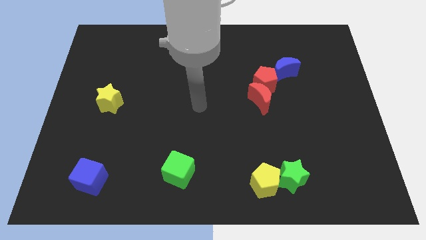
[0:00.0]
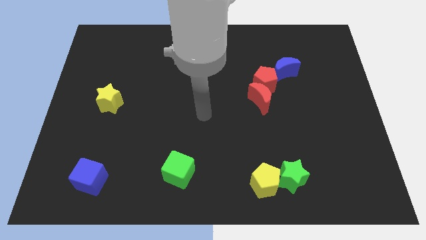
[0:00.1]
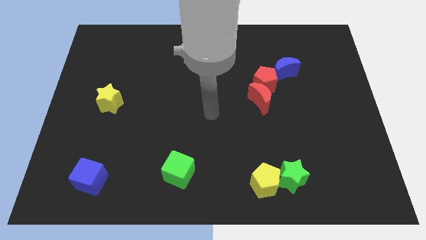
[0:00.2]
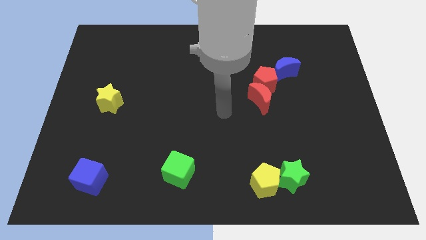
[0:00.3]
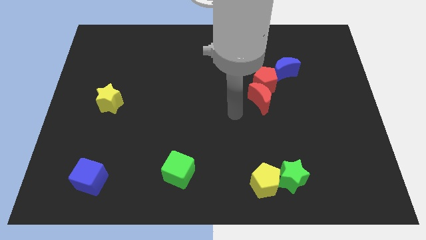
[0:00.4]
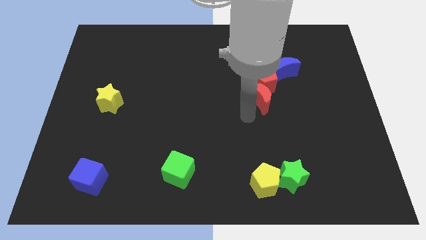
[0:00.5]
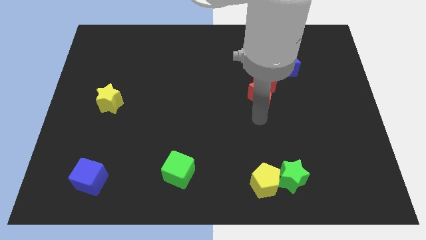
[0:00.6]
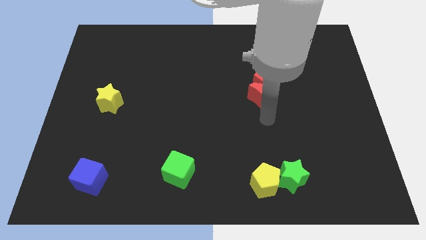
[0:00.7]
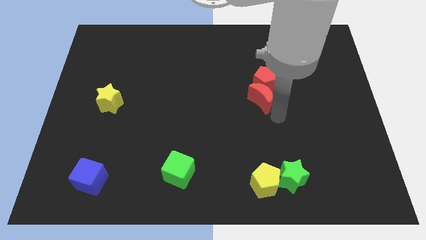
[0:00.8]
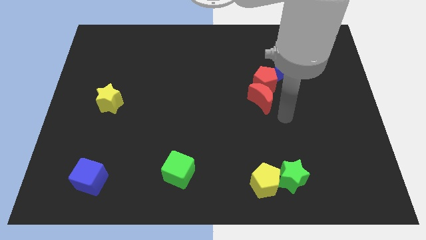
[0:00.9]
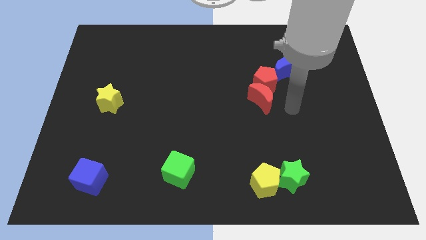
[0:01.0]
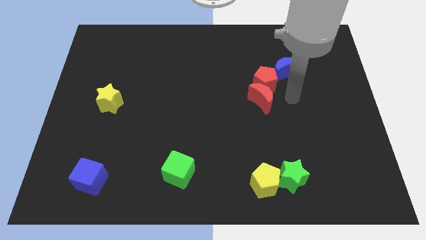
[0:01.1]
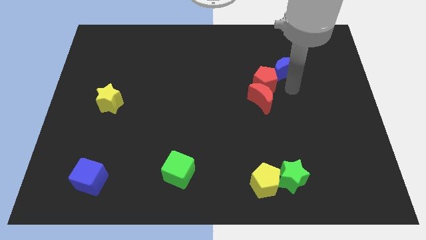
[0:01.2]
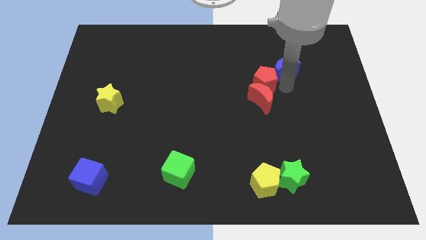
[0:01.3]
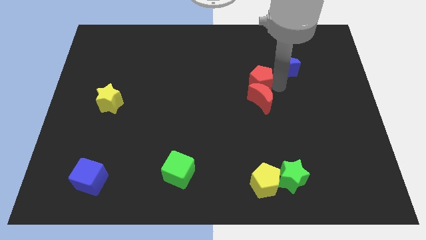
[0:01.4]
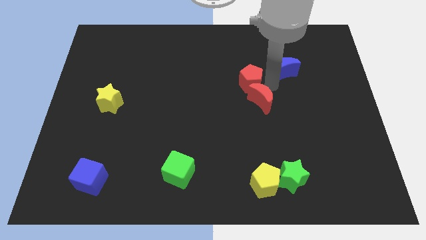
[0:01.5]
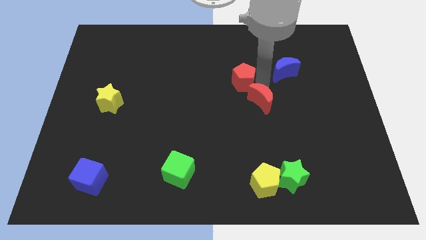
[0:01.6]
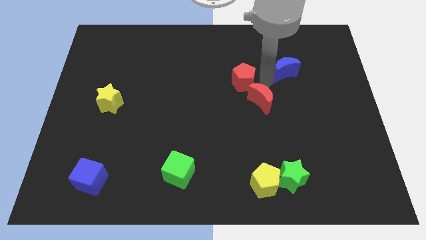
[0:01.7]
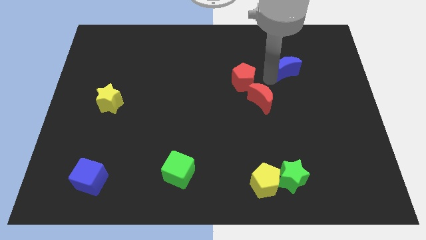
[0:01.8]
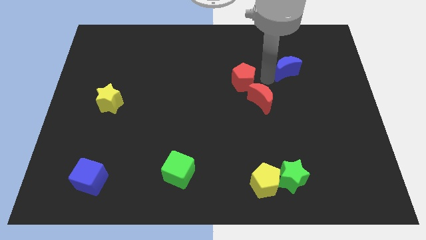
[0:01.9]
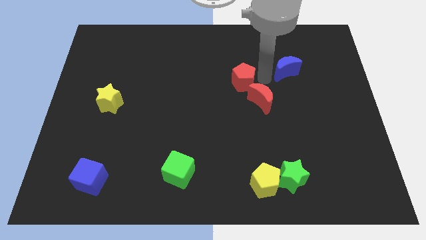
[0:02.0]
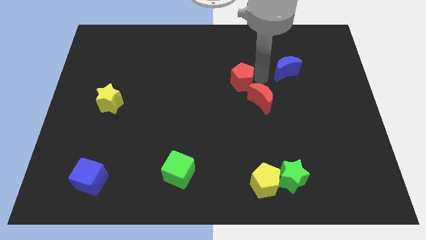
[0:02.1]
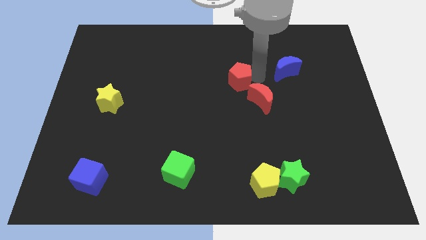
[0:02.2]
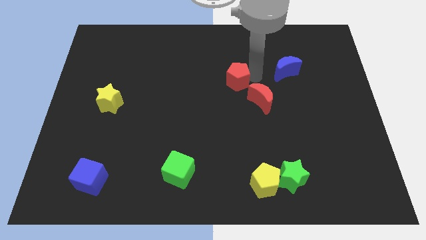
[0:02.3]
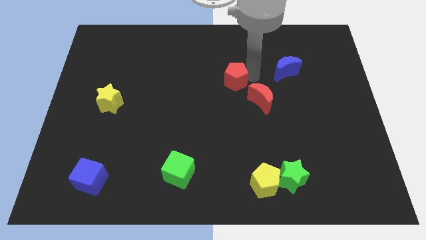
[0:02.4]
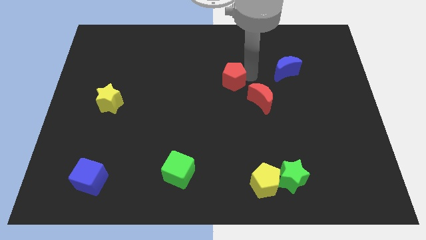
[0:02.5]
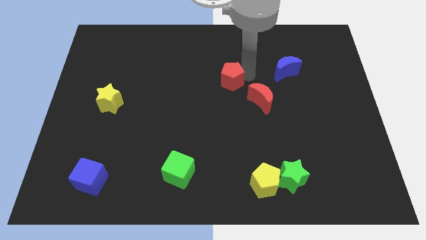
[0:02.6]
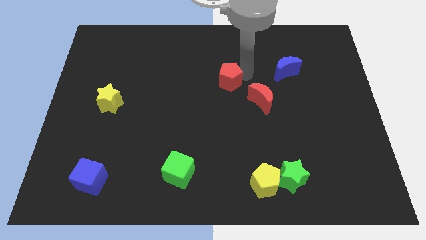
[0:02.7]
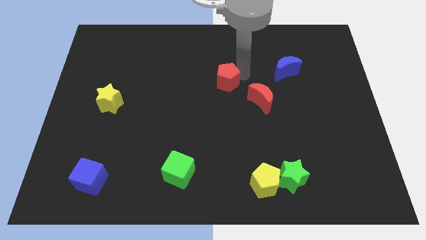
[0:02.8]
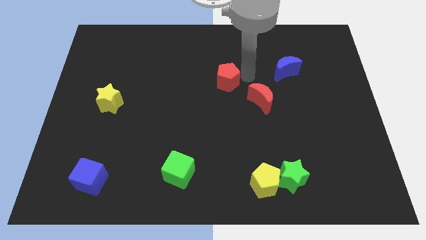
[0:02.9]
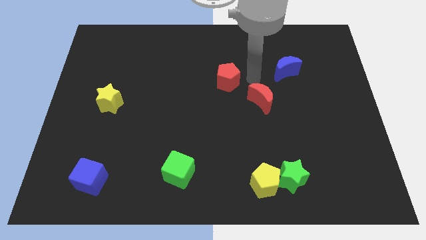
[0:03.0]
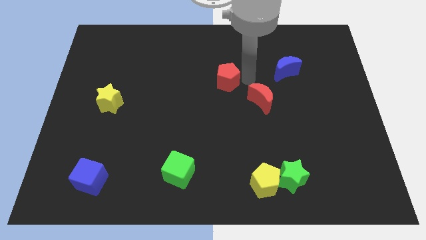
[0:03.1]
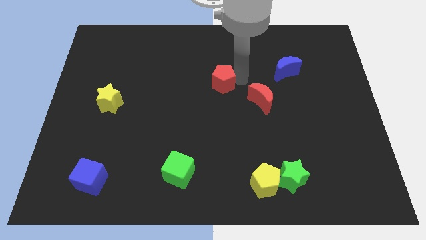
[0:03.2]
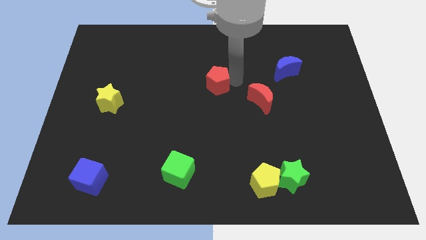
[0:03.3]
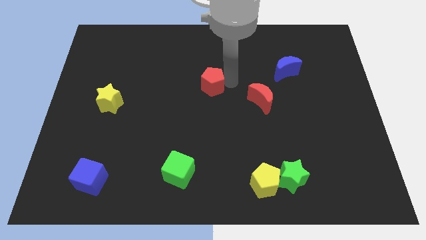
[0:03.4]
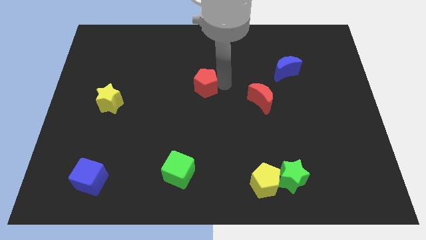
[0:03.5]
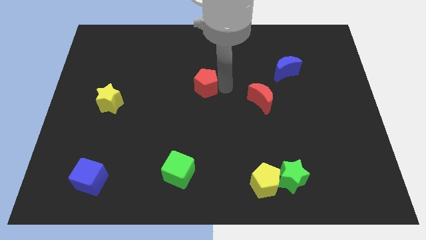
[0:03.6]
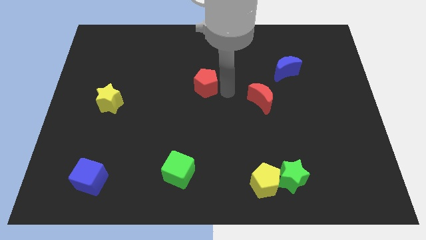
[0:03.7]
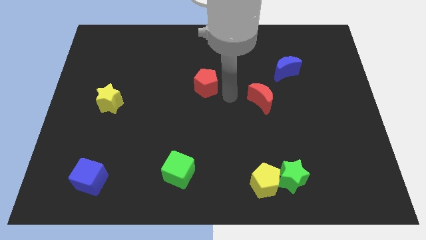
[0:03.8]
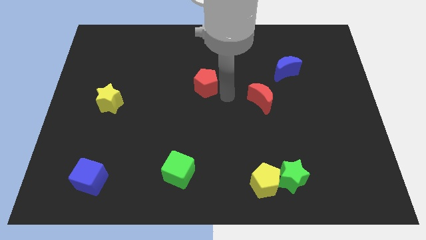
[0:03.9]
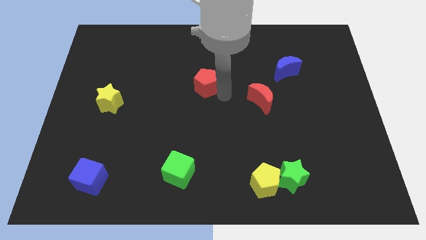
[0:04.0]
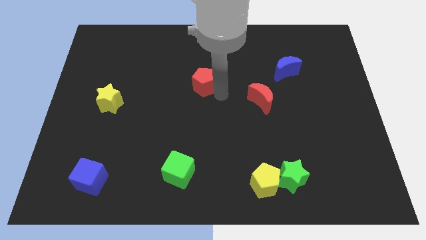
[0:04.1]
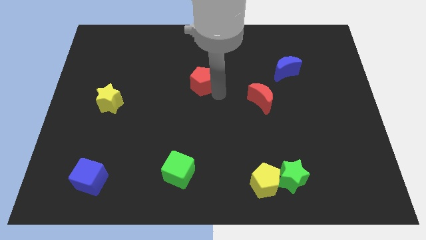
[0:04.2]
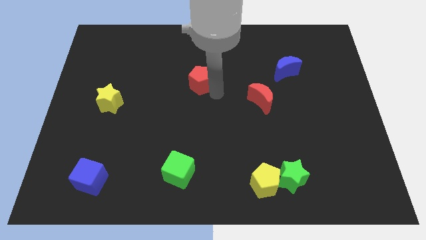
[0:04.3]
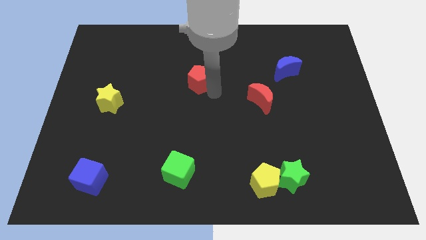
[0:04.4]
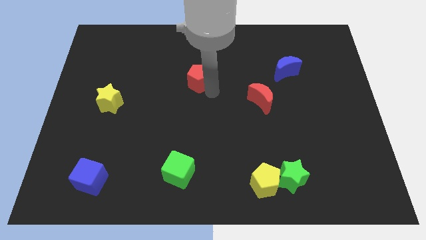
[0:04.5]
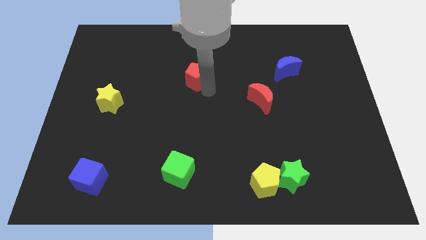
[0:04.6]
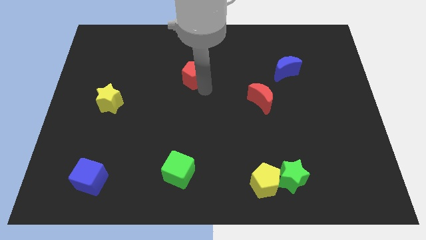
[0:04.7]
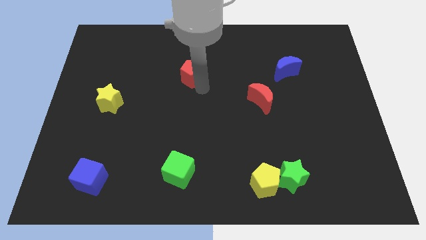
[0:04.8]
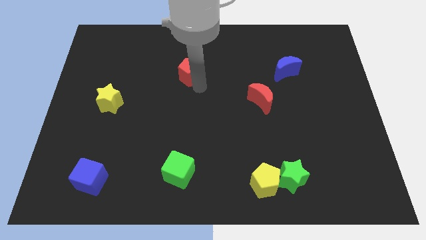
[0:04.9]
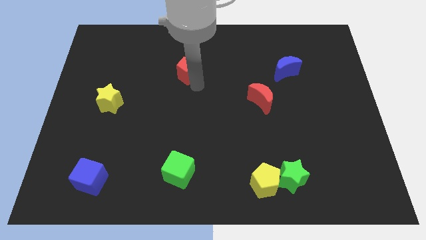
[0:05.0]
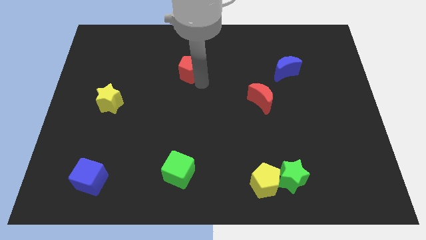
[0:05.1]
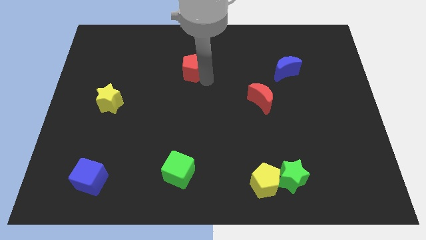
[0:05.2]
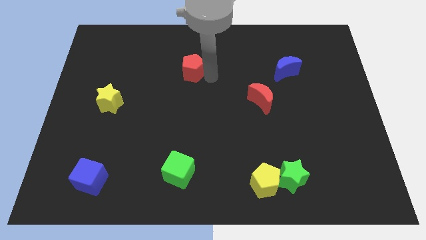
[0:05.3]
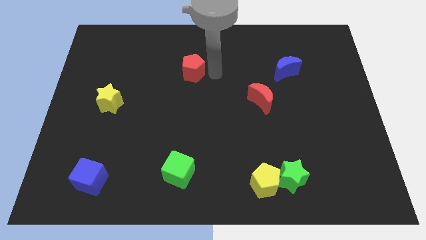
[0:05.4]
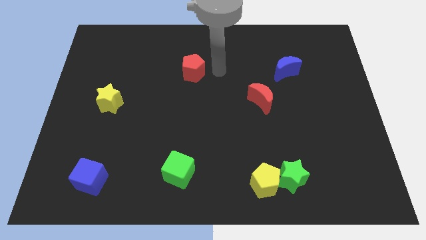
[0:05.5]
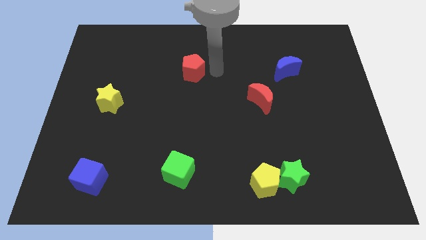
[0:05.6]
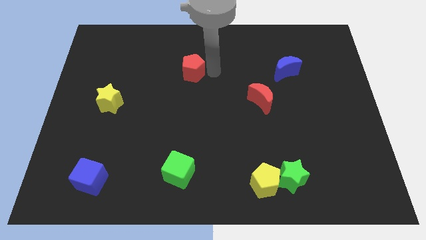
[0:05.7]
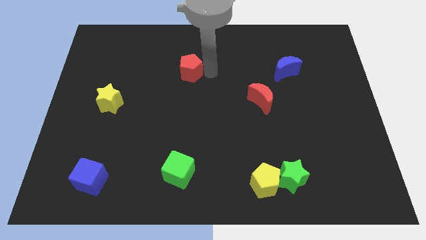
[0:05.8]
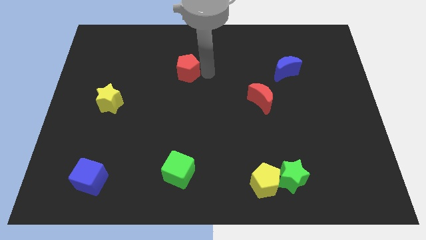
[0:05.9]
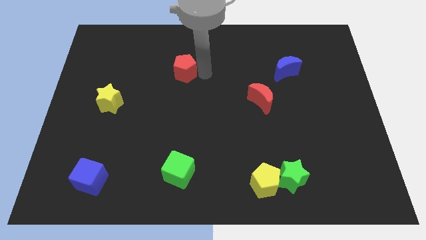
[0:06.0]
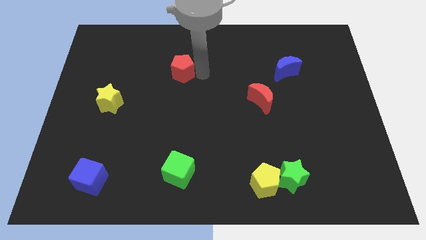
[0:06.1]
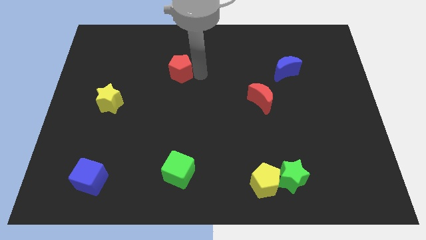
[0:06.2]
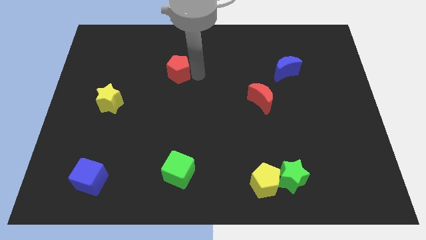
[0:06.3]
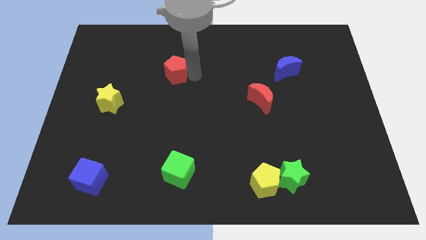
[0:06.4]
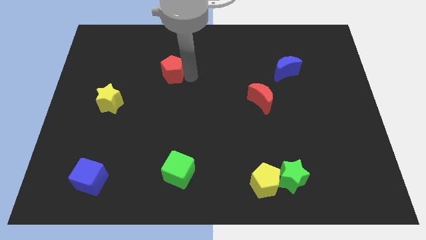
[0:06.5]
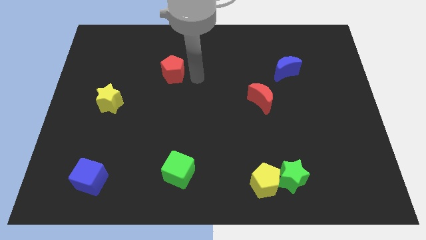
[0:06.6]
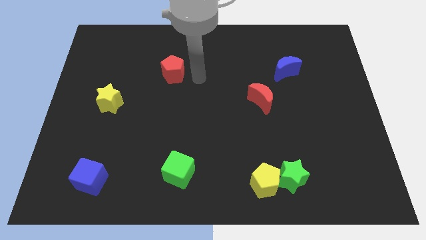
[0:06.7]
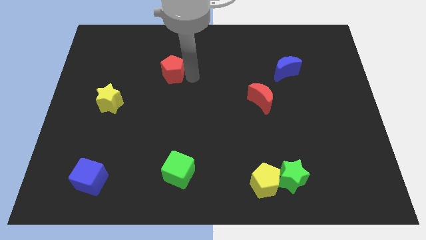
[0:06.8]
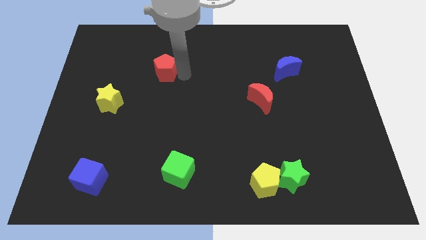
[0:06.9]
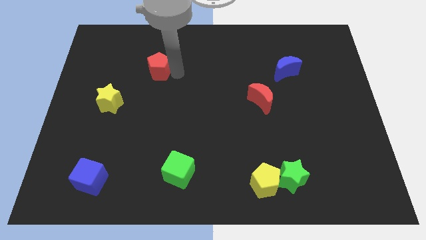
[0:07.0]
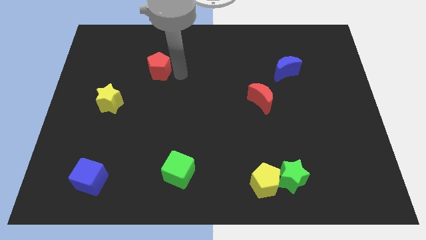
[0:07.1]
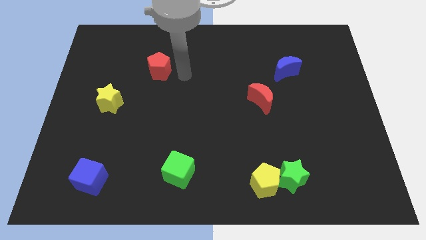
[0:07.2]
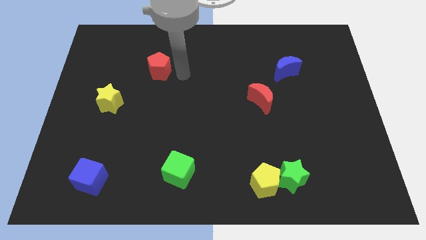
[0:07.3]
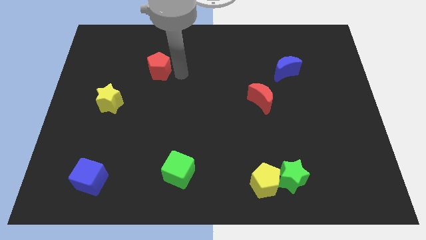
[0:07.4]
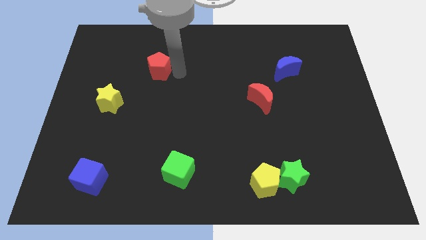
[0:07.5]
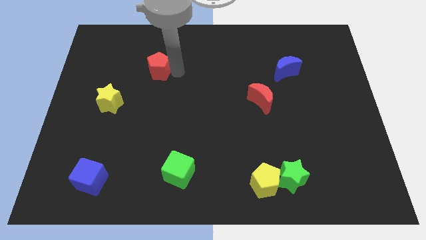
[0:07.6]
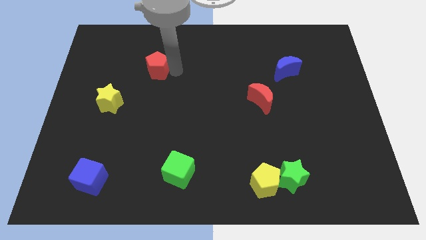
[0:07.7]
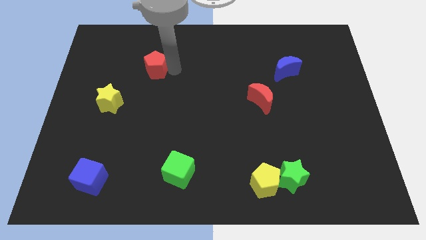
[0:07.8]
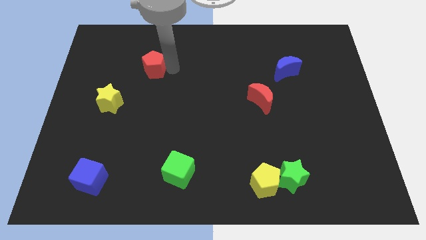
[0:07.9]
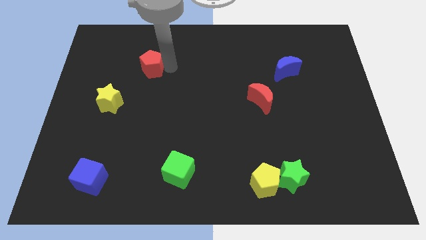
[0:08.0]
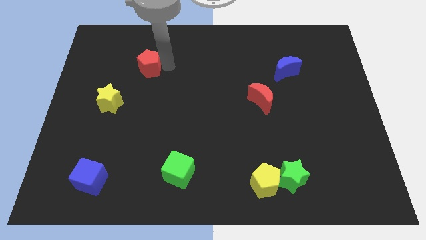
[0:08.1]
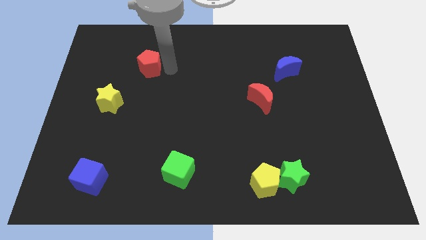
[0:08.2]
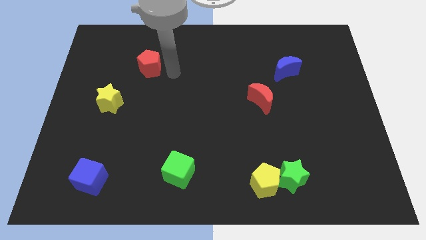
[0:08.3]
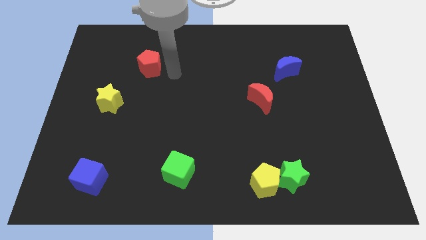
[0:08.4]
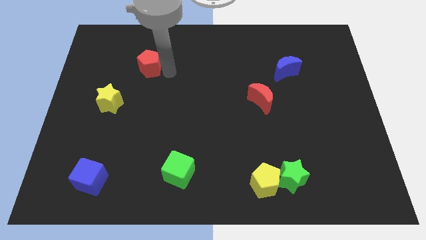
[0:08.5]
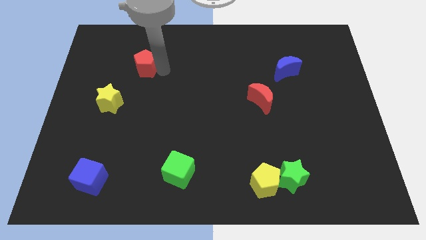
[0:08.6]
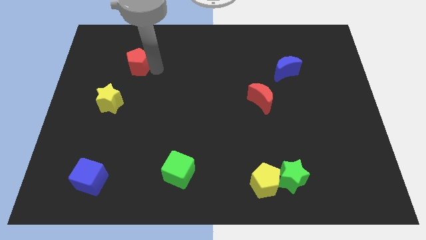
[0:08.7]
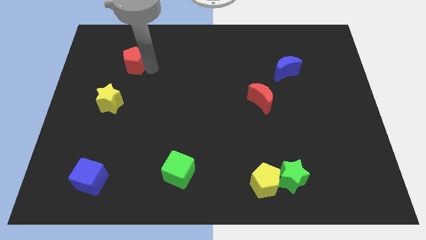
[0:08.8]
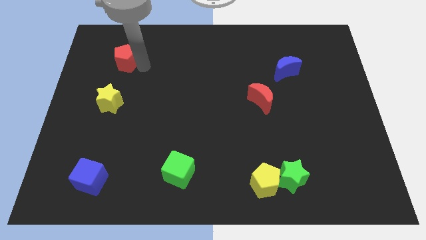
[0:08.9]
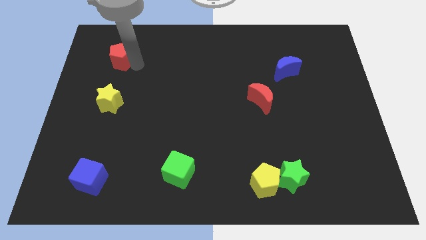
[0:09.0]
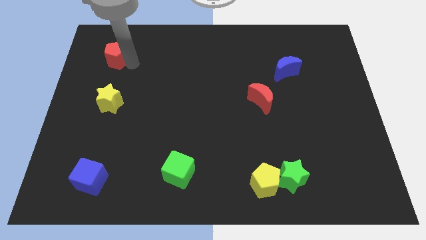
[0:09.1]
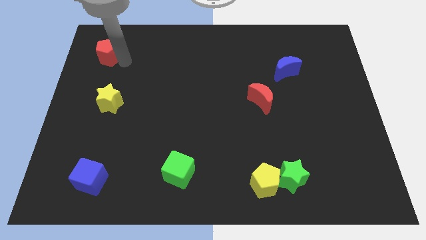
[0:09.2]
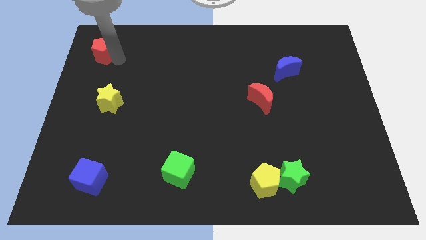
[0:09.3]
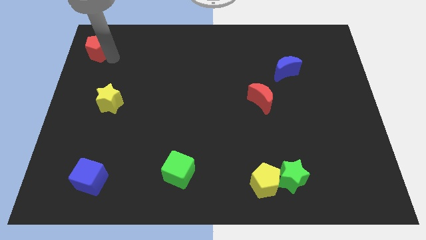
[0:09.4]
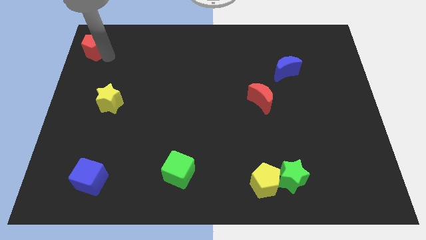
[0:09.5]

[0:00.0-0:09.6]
slide the red pentagon to the upper left corner
